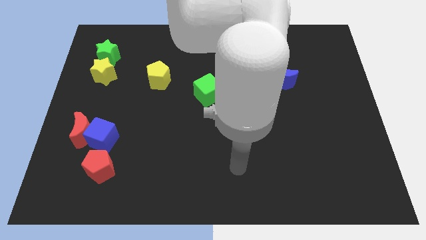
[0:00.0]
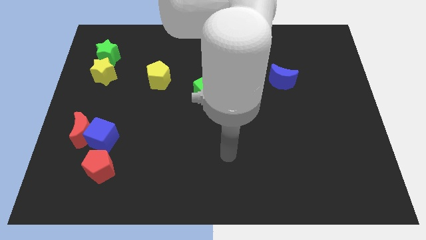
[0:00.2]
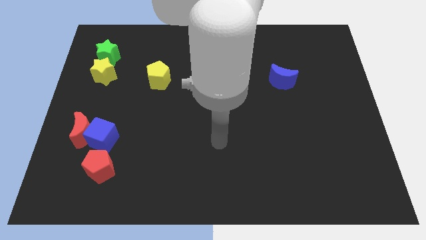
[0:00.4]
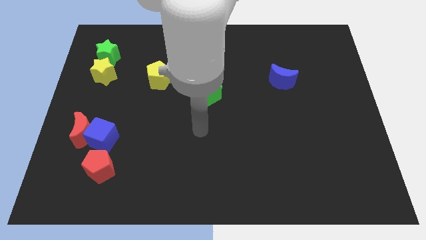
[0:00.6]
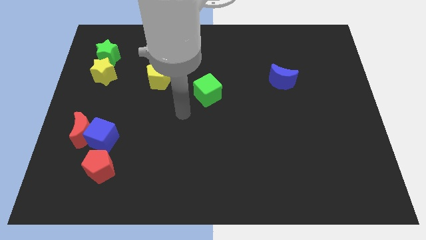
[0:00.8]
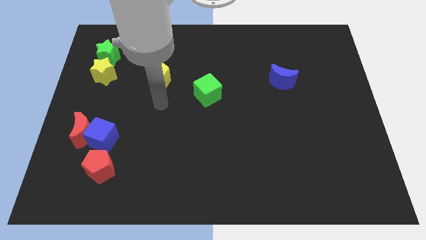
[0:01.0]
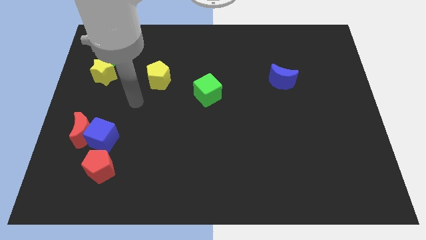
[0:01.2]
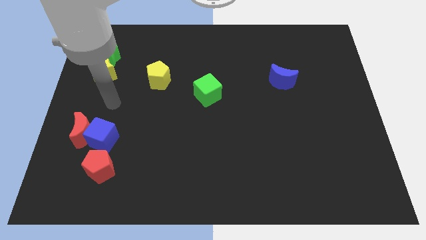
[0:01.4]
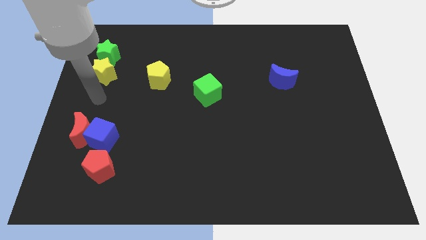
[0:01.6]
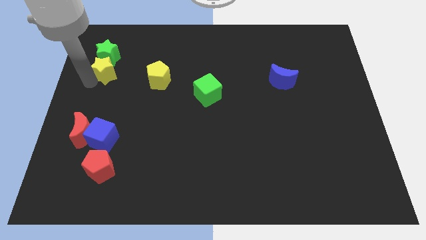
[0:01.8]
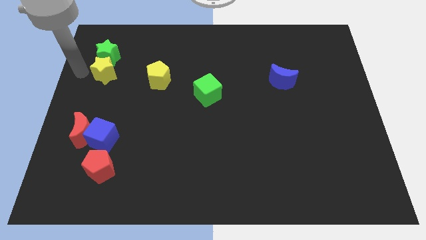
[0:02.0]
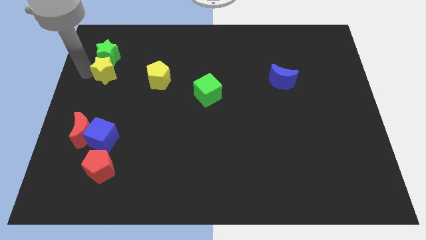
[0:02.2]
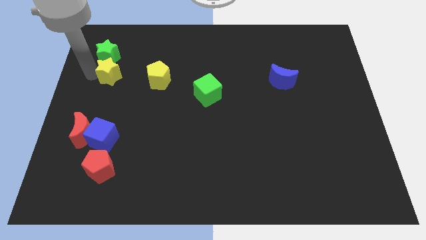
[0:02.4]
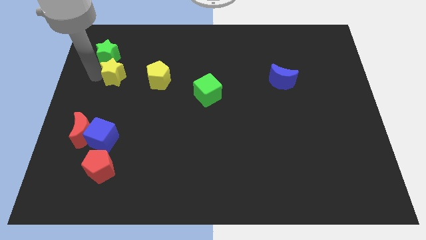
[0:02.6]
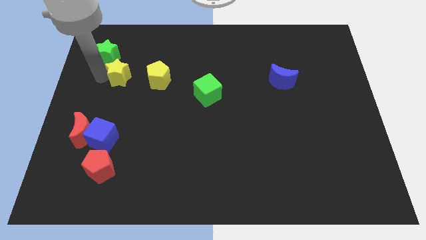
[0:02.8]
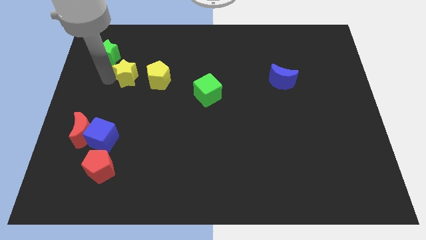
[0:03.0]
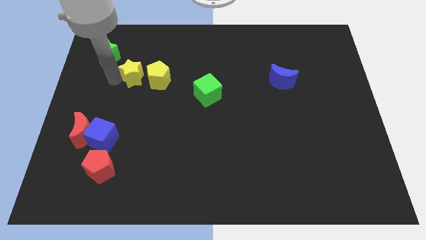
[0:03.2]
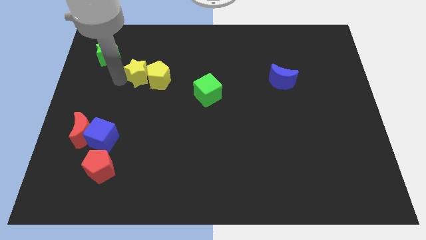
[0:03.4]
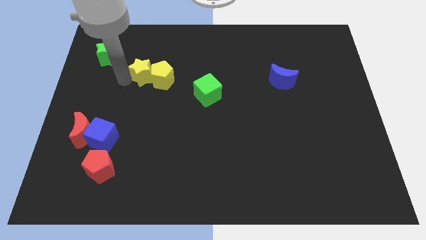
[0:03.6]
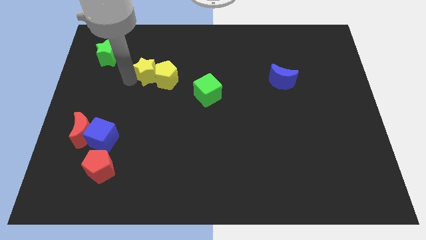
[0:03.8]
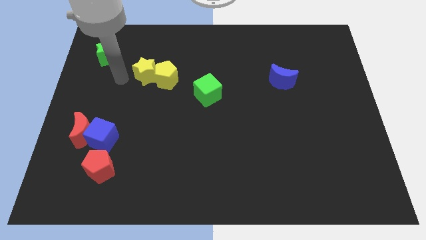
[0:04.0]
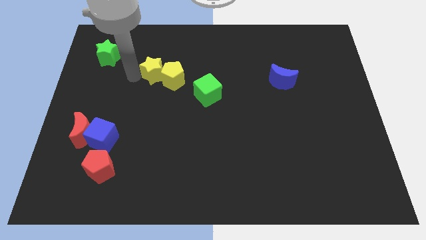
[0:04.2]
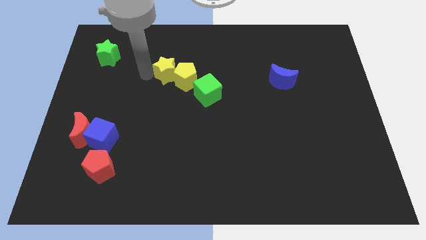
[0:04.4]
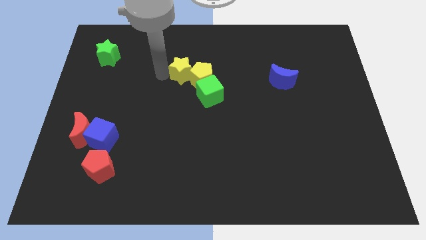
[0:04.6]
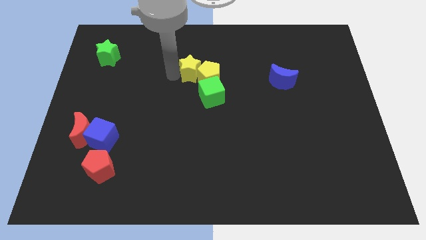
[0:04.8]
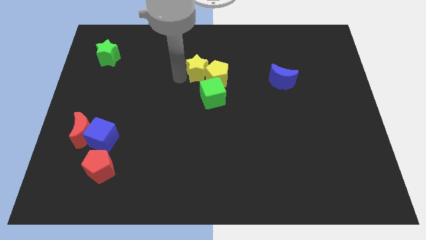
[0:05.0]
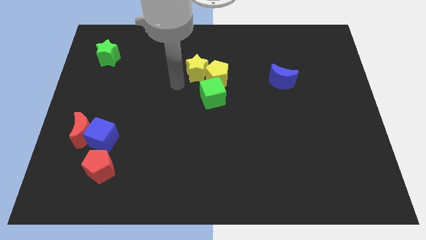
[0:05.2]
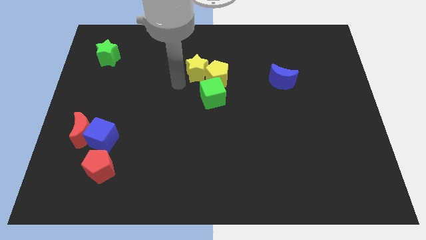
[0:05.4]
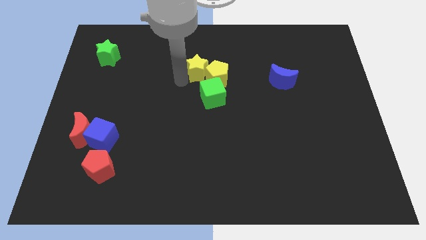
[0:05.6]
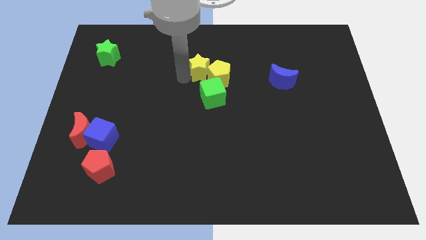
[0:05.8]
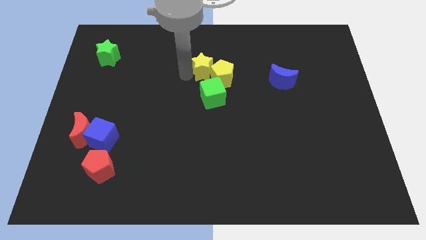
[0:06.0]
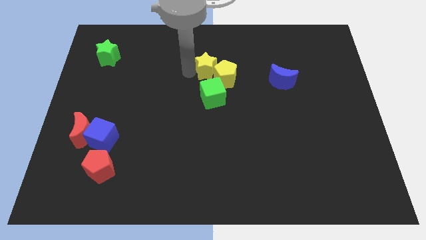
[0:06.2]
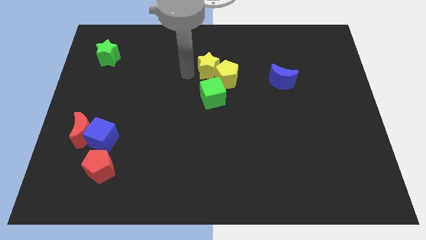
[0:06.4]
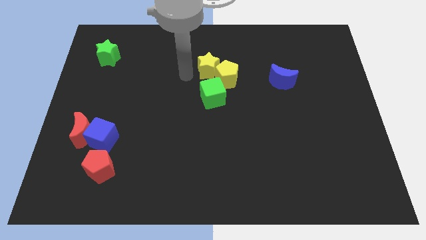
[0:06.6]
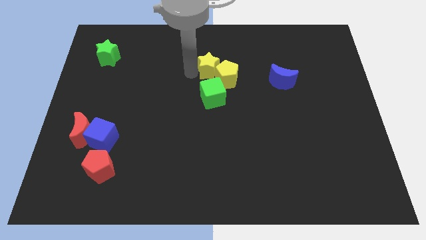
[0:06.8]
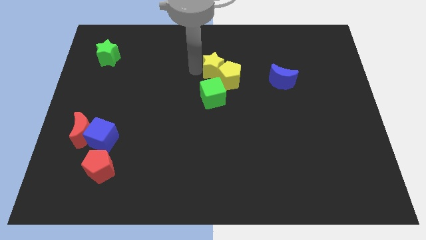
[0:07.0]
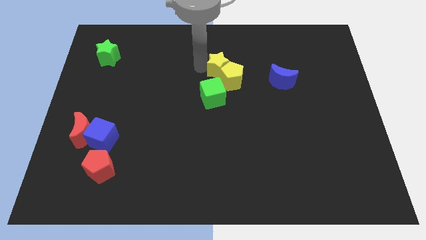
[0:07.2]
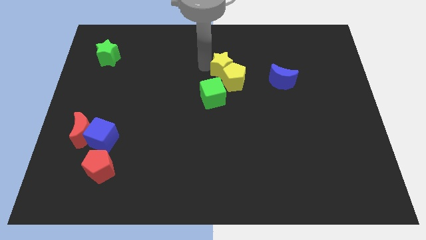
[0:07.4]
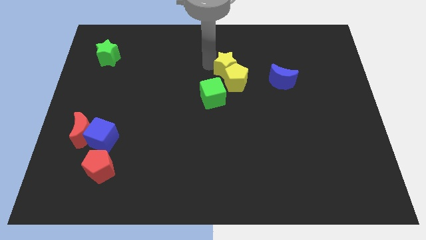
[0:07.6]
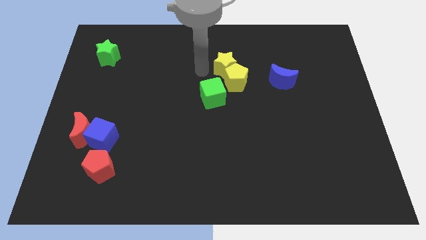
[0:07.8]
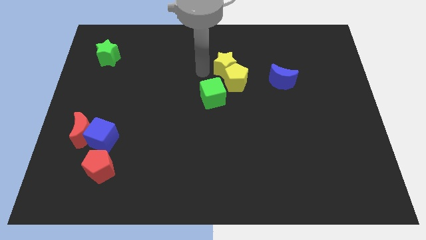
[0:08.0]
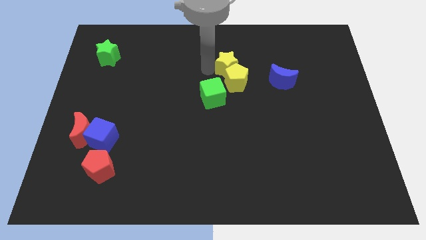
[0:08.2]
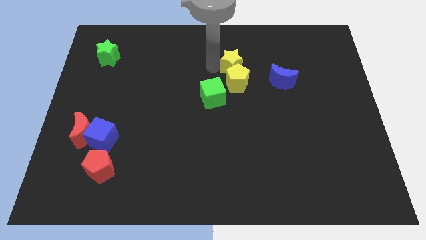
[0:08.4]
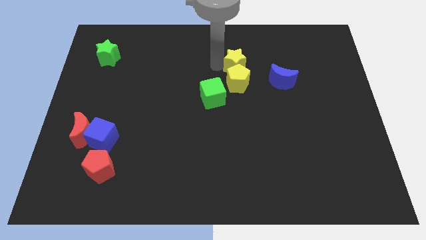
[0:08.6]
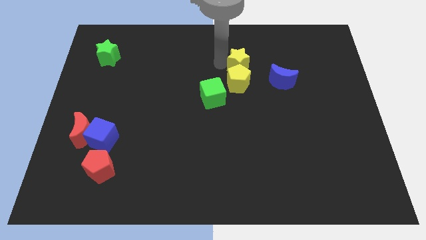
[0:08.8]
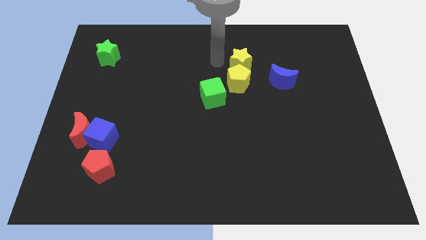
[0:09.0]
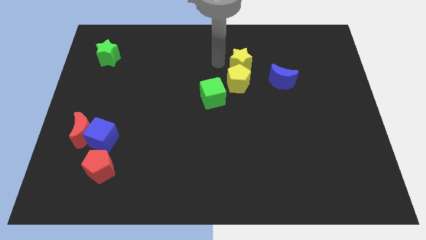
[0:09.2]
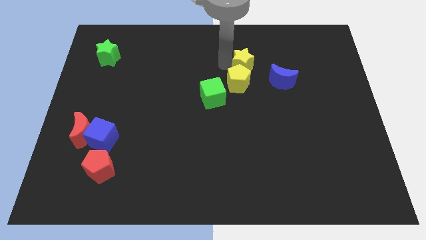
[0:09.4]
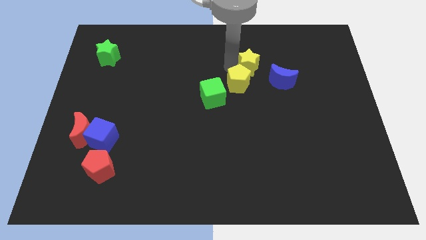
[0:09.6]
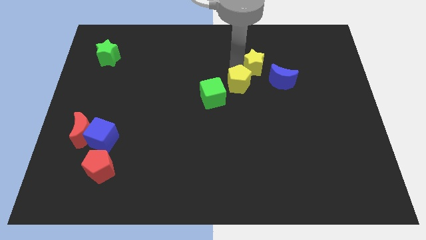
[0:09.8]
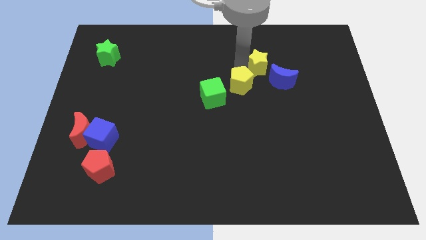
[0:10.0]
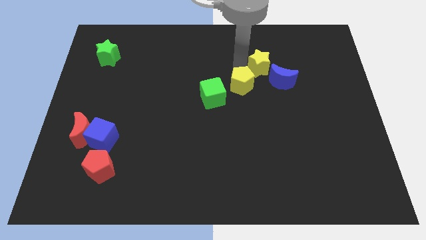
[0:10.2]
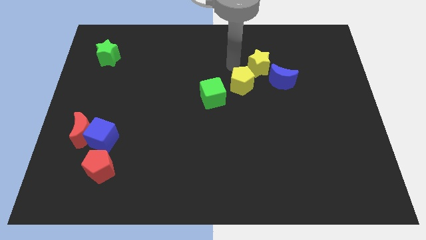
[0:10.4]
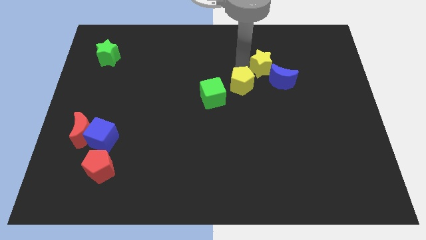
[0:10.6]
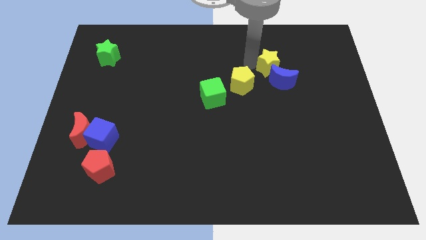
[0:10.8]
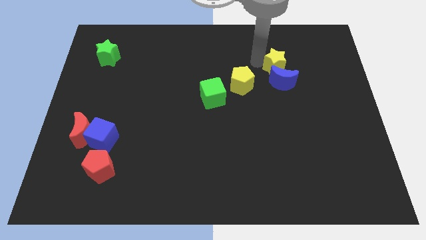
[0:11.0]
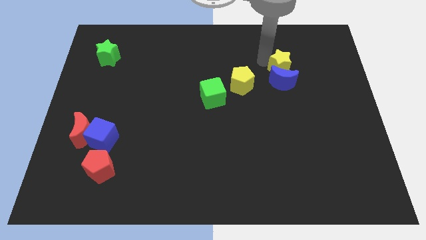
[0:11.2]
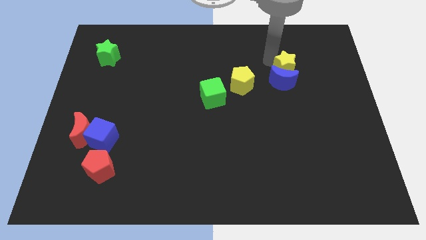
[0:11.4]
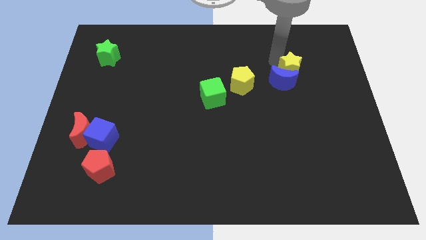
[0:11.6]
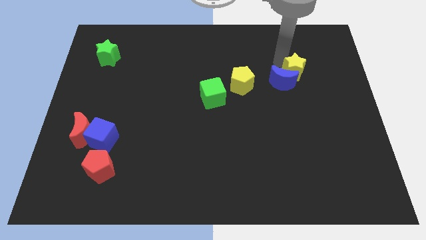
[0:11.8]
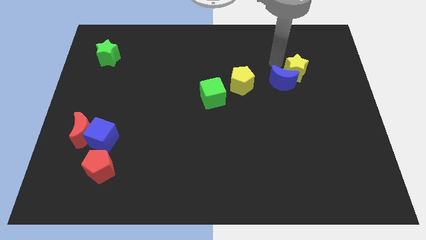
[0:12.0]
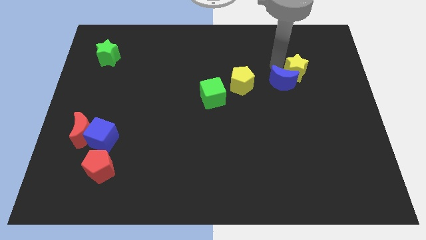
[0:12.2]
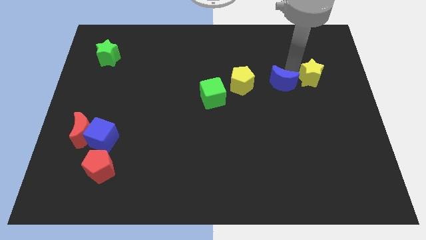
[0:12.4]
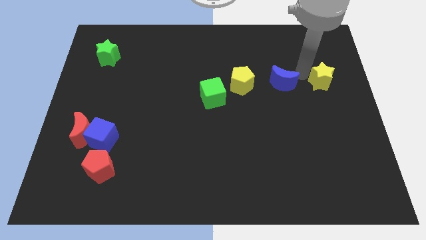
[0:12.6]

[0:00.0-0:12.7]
put the yellow star to the center right
